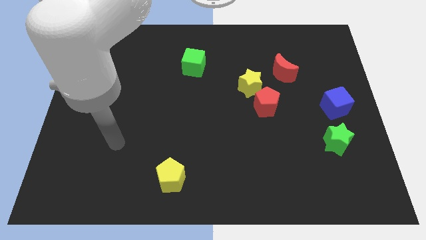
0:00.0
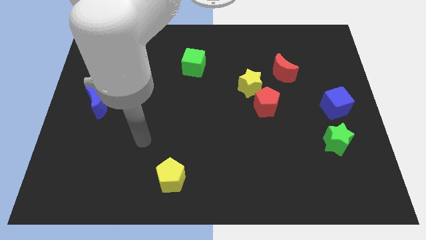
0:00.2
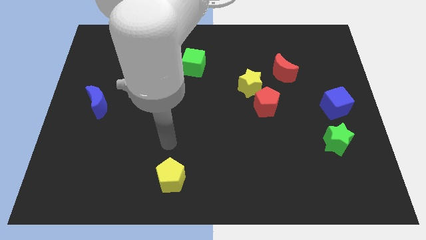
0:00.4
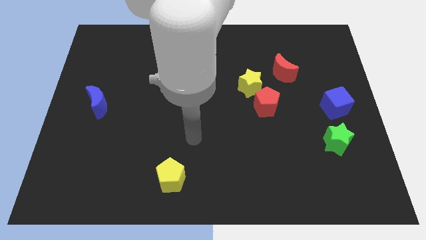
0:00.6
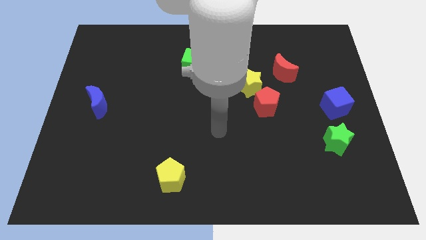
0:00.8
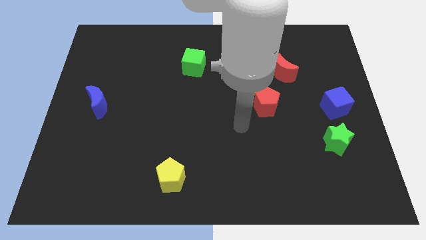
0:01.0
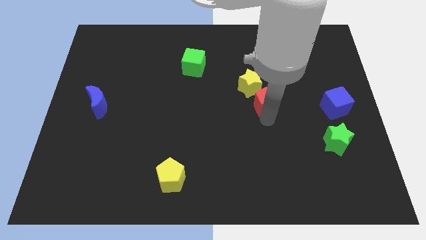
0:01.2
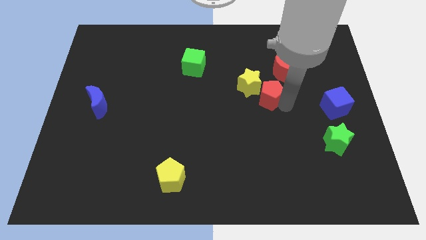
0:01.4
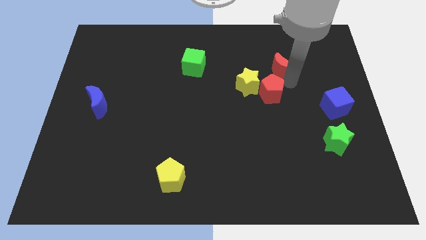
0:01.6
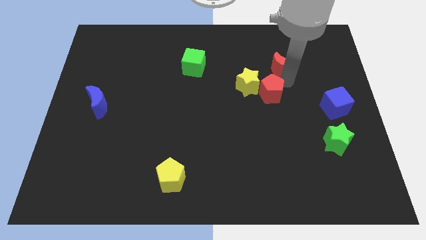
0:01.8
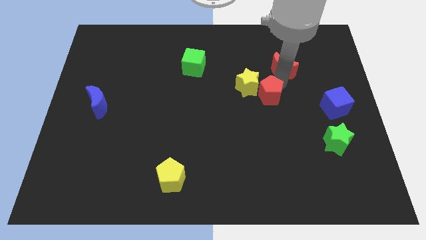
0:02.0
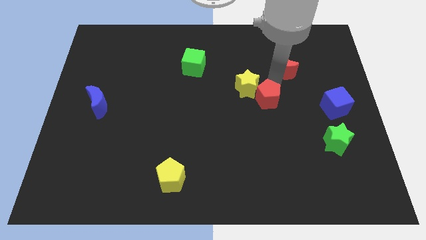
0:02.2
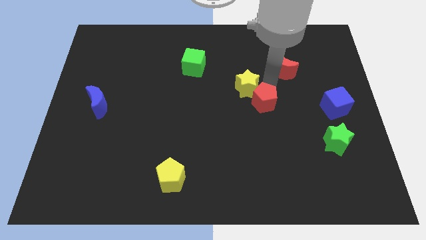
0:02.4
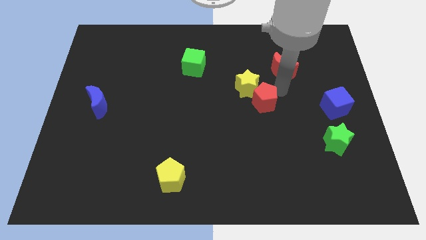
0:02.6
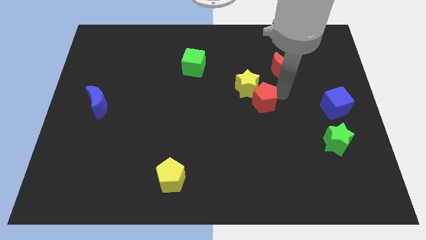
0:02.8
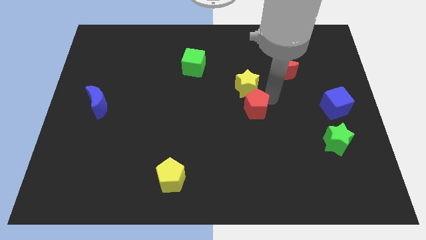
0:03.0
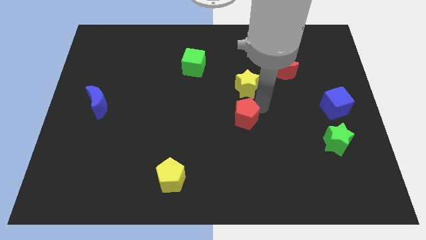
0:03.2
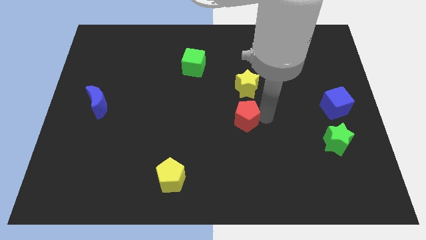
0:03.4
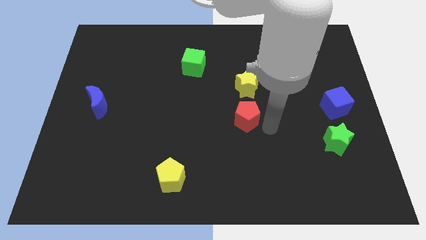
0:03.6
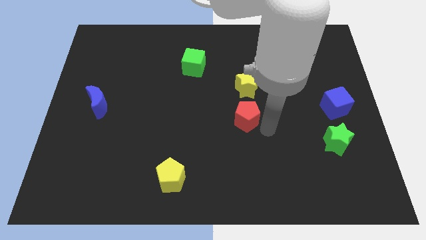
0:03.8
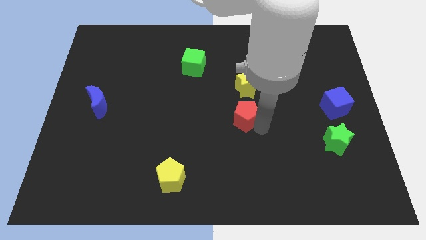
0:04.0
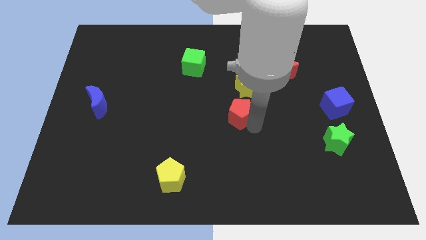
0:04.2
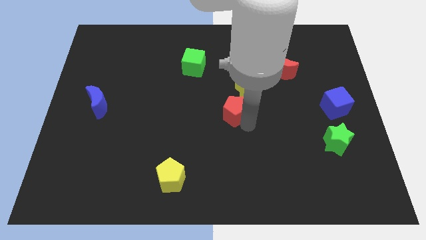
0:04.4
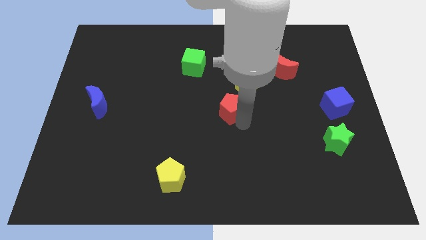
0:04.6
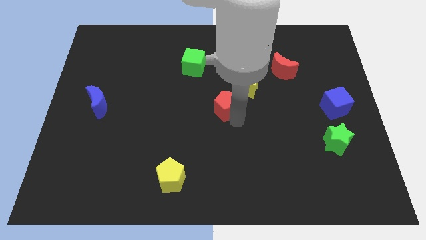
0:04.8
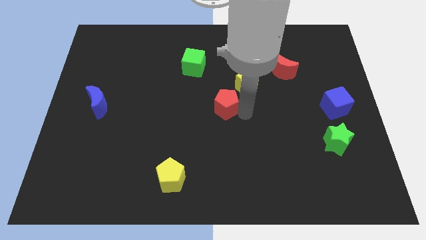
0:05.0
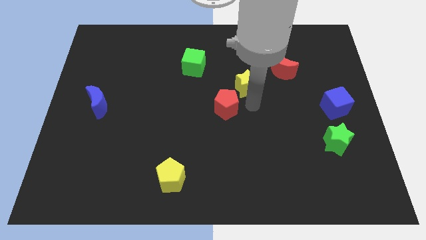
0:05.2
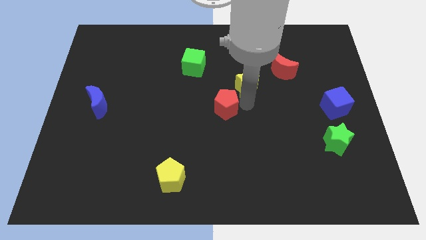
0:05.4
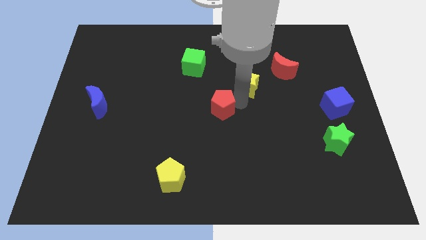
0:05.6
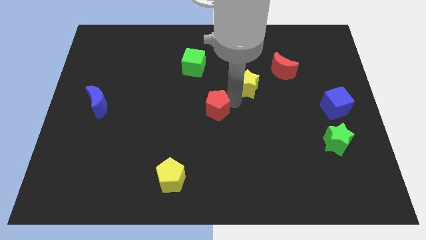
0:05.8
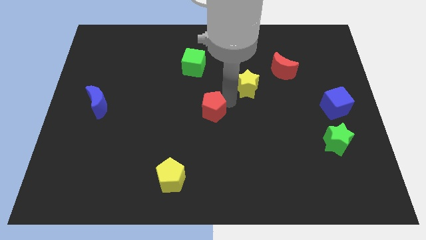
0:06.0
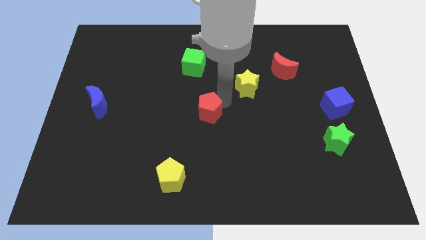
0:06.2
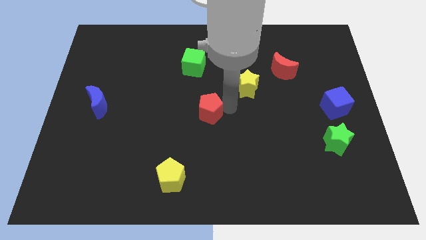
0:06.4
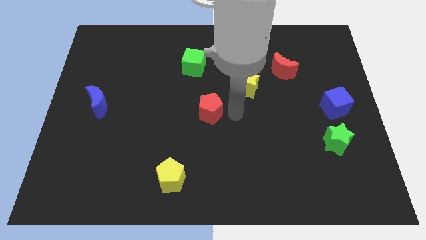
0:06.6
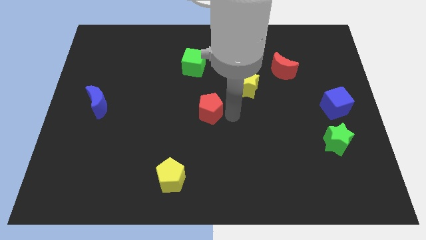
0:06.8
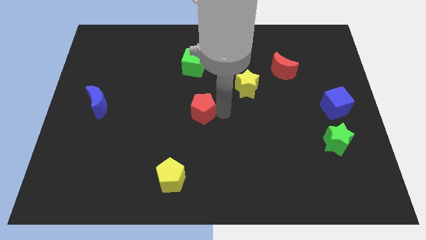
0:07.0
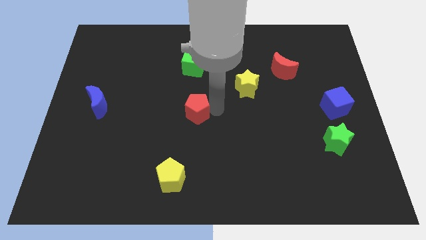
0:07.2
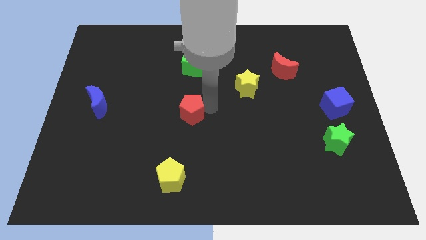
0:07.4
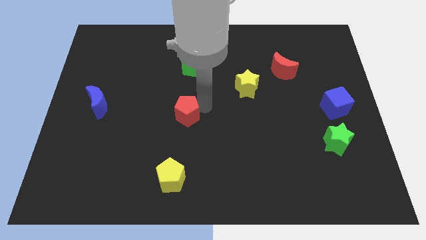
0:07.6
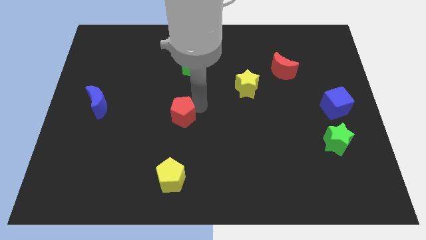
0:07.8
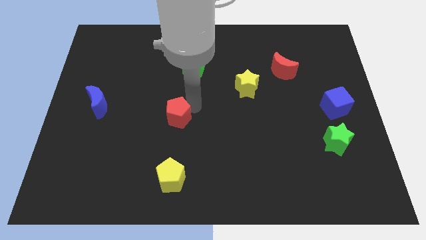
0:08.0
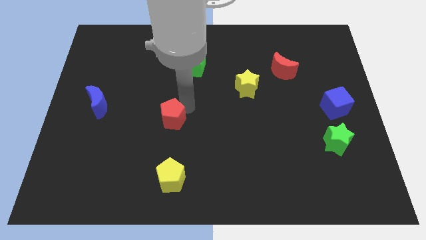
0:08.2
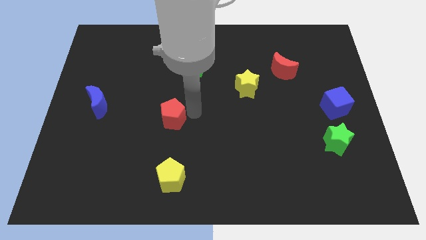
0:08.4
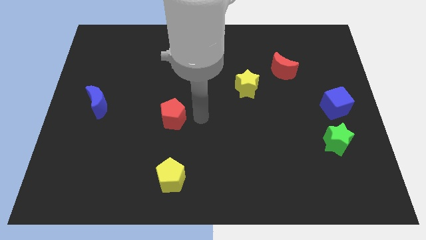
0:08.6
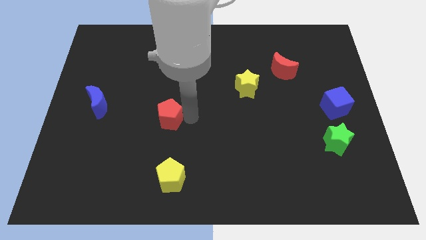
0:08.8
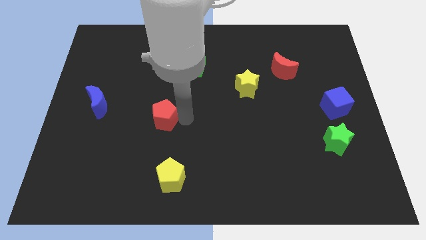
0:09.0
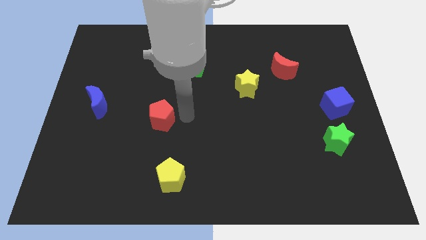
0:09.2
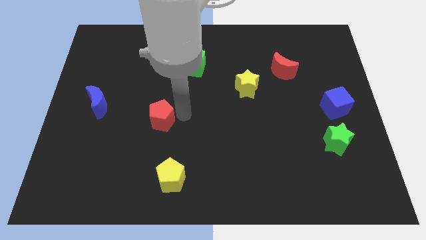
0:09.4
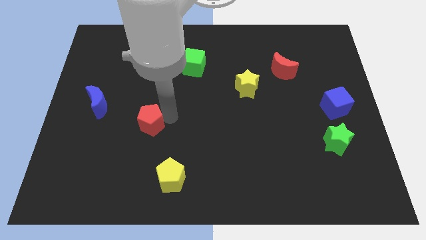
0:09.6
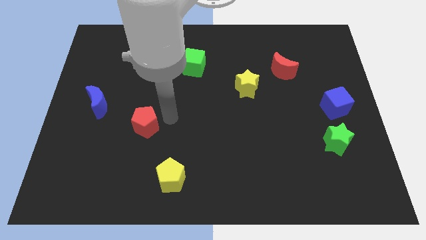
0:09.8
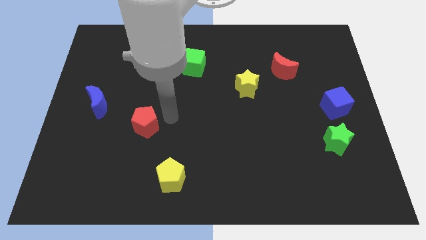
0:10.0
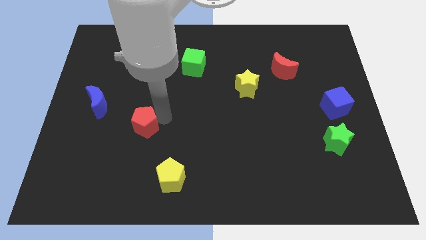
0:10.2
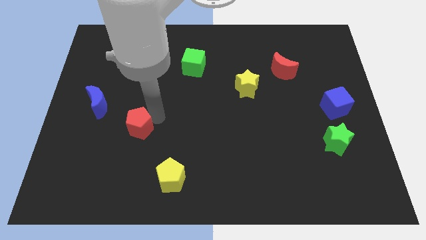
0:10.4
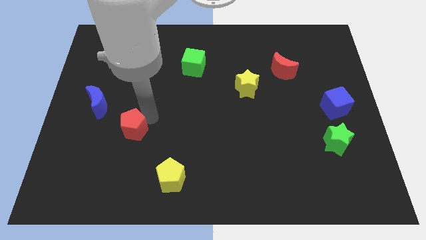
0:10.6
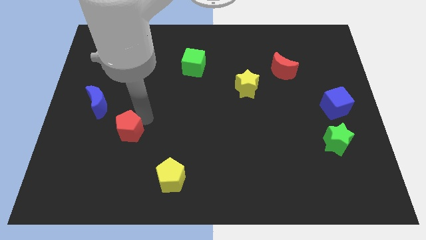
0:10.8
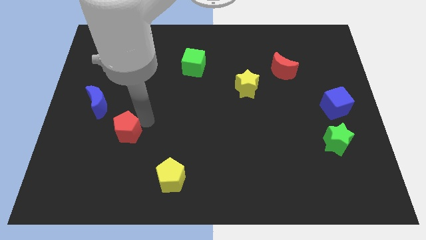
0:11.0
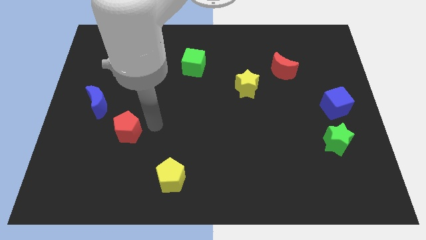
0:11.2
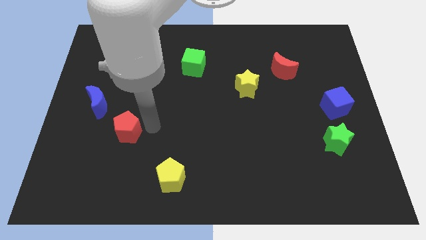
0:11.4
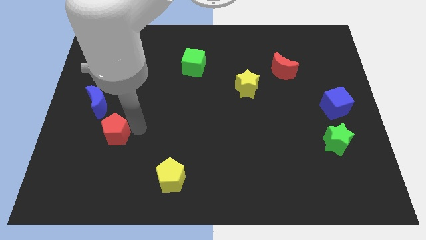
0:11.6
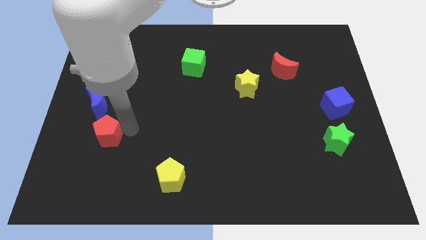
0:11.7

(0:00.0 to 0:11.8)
push the red pentagon to the bottom side of the blue moon
